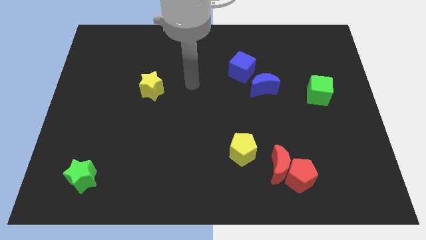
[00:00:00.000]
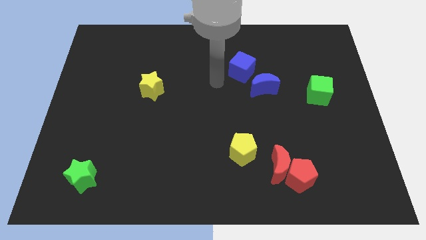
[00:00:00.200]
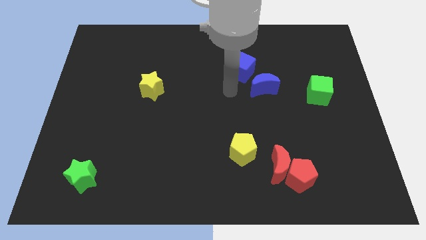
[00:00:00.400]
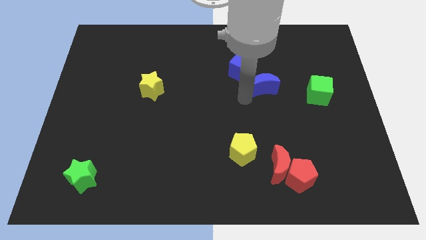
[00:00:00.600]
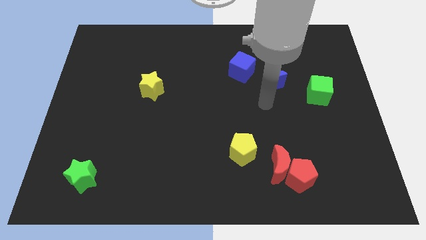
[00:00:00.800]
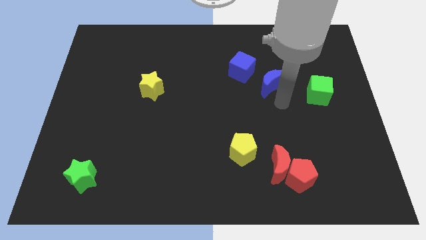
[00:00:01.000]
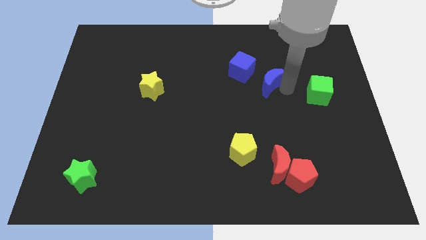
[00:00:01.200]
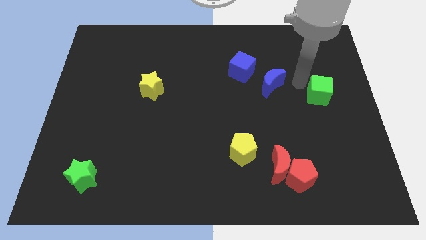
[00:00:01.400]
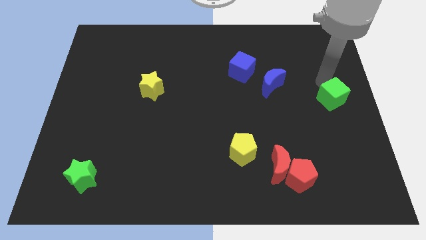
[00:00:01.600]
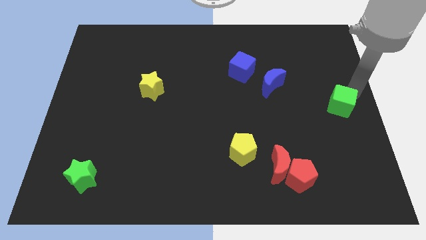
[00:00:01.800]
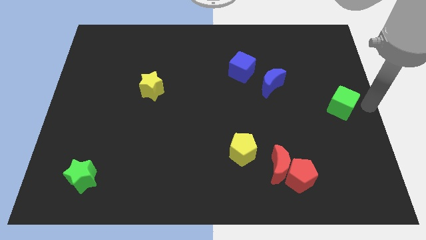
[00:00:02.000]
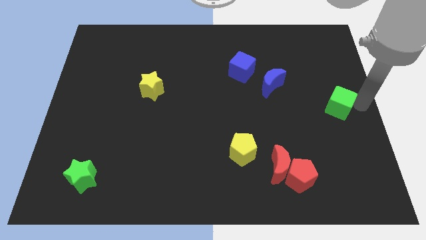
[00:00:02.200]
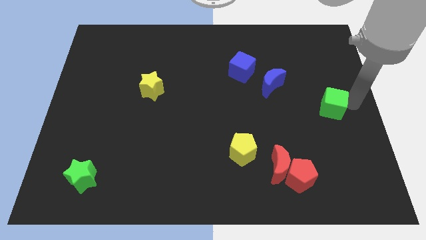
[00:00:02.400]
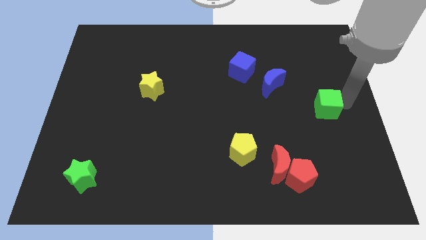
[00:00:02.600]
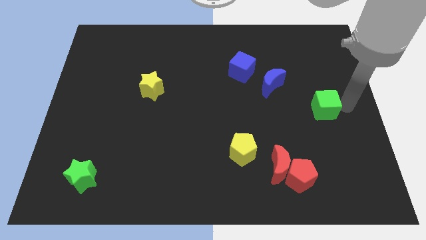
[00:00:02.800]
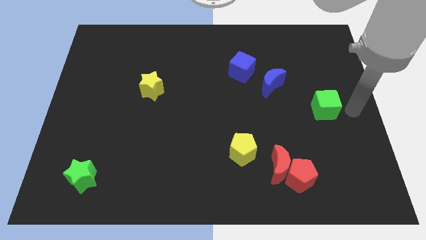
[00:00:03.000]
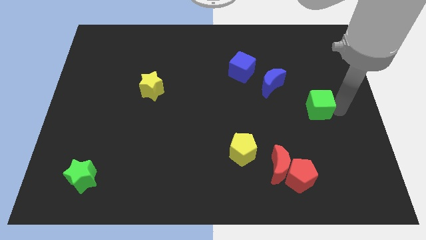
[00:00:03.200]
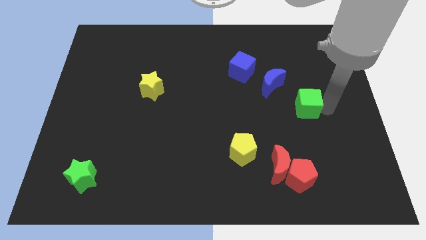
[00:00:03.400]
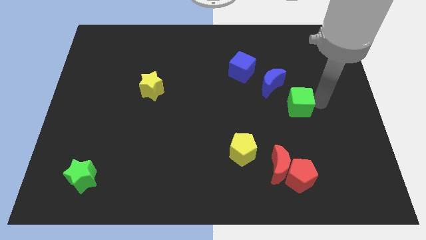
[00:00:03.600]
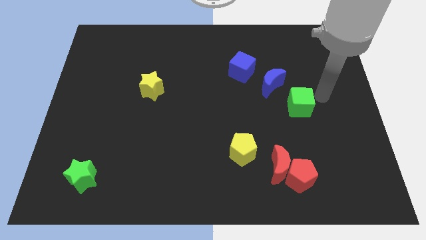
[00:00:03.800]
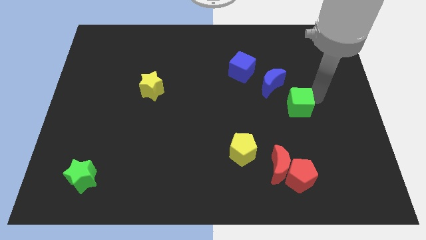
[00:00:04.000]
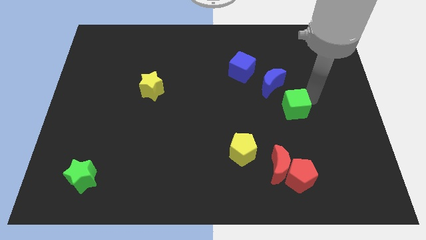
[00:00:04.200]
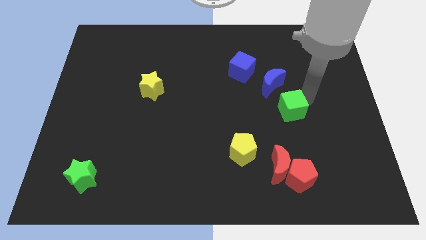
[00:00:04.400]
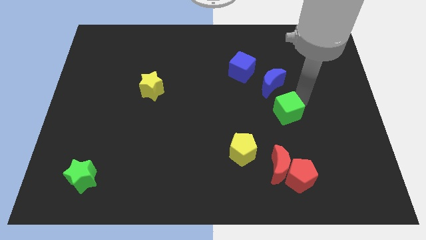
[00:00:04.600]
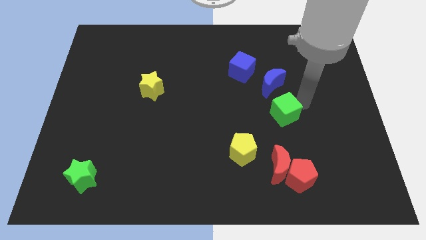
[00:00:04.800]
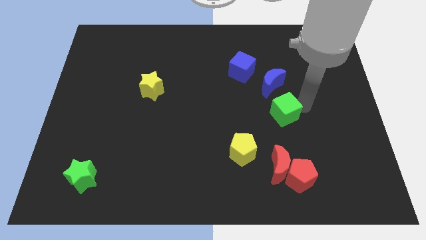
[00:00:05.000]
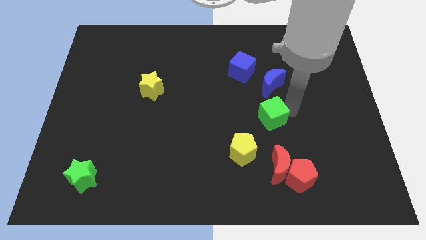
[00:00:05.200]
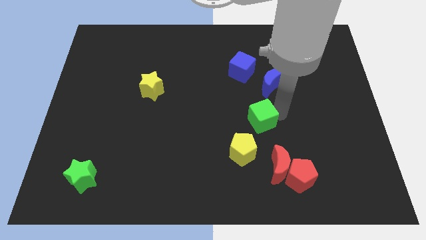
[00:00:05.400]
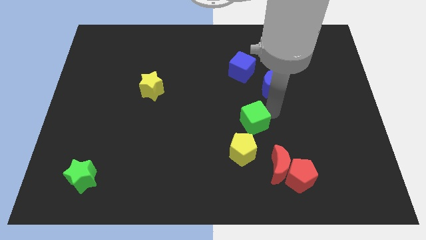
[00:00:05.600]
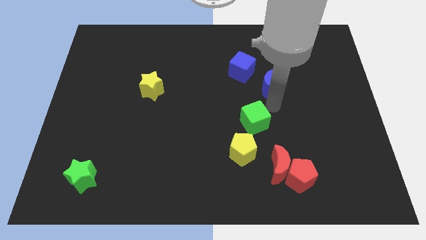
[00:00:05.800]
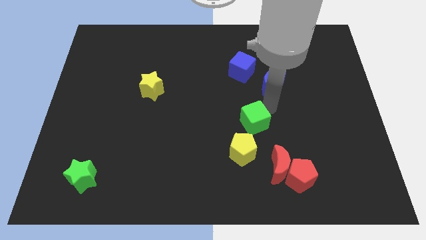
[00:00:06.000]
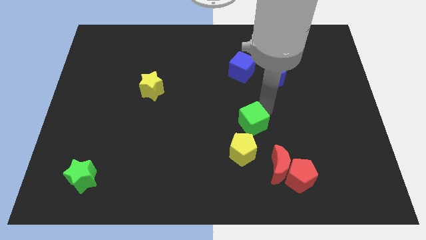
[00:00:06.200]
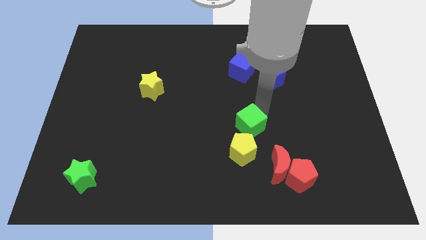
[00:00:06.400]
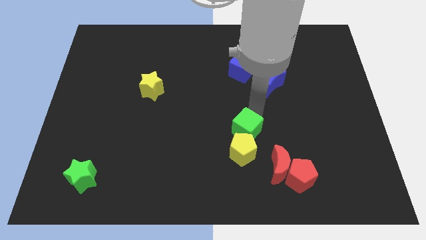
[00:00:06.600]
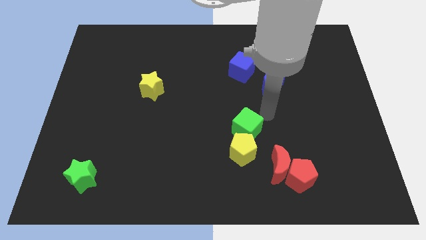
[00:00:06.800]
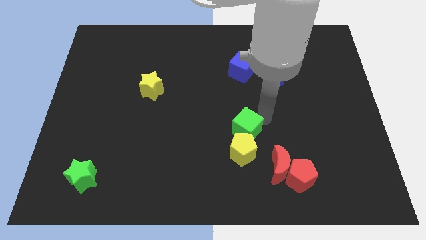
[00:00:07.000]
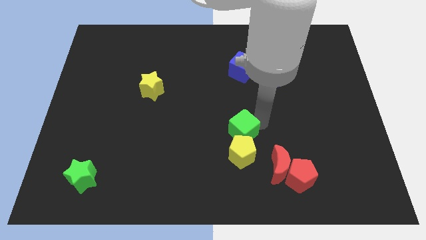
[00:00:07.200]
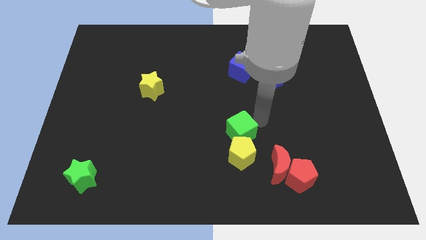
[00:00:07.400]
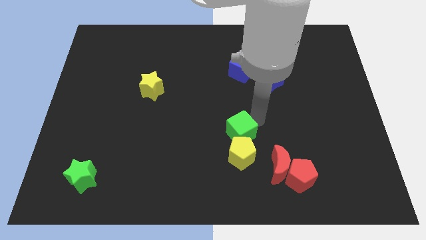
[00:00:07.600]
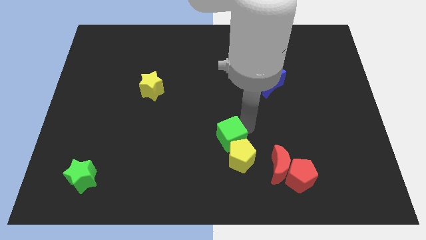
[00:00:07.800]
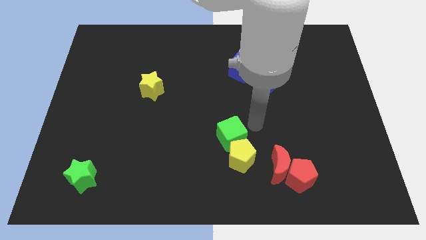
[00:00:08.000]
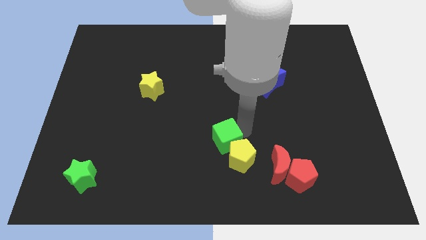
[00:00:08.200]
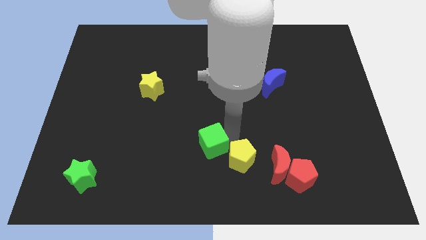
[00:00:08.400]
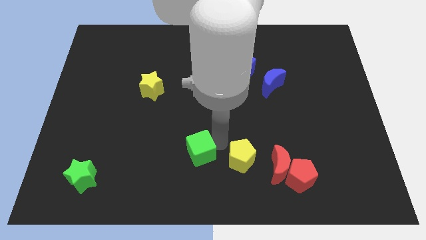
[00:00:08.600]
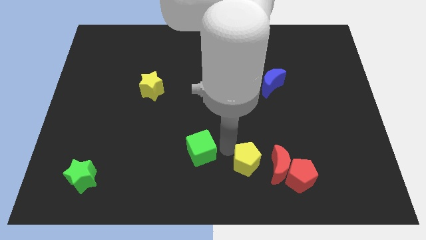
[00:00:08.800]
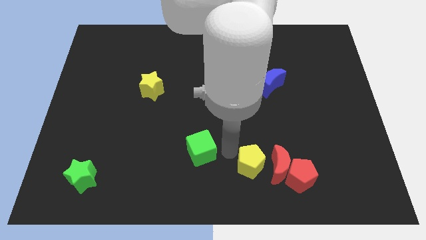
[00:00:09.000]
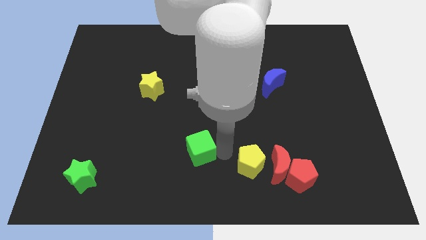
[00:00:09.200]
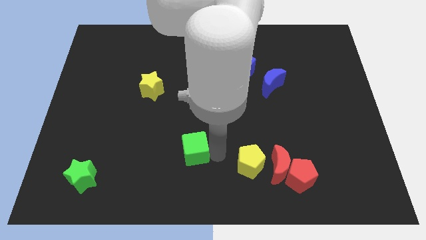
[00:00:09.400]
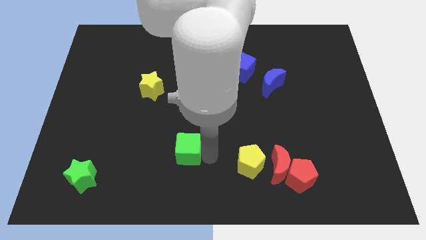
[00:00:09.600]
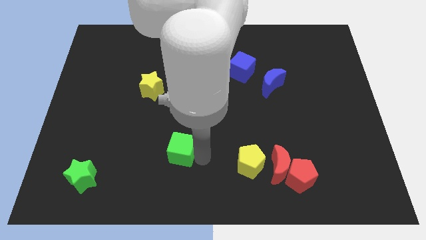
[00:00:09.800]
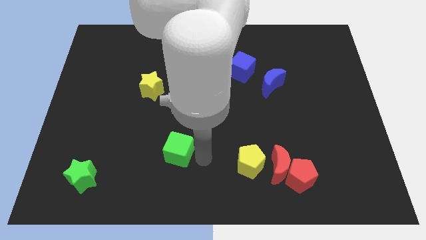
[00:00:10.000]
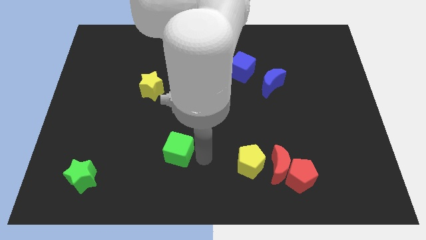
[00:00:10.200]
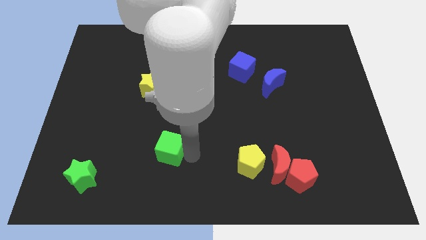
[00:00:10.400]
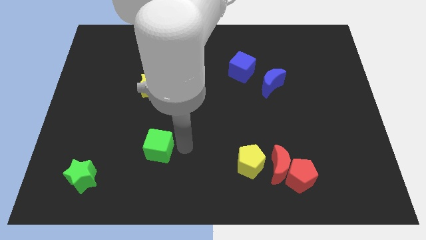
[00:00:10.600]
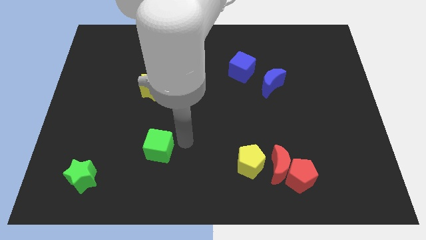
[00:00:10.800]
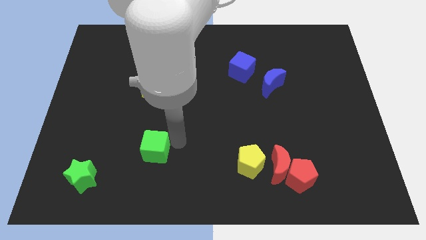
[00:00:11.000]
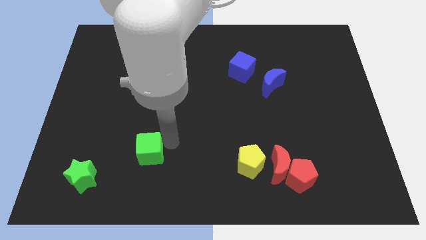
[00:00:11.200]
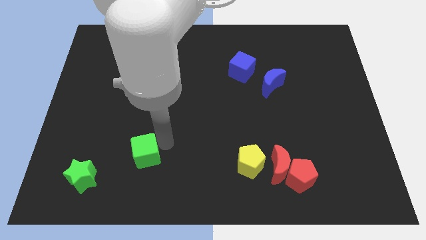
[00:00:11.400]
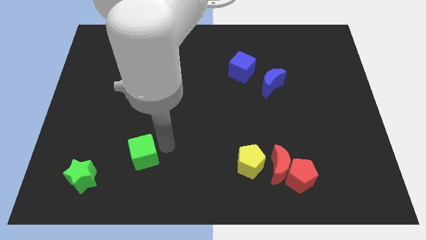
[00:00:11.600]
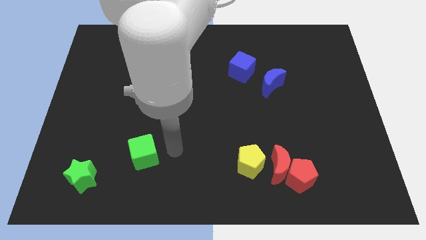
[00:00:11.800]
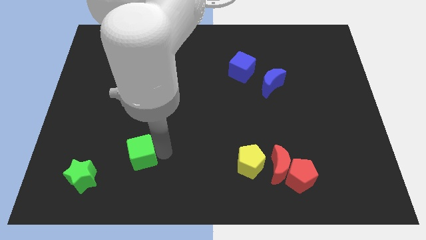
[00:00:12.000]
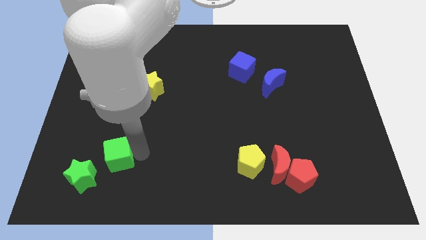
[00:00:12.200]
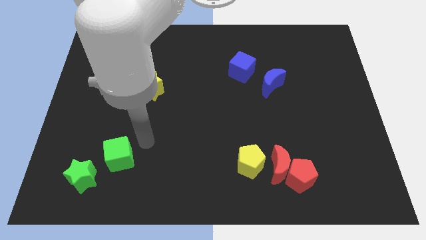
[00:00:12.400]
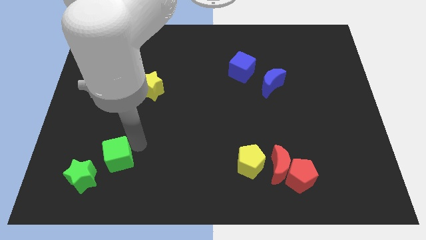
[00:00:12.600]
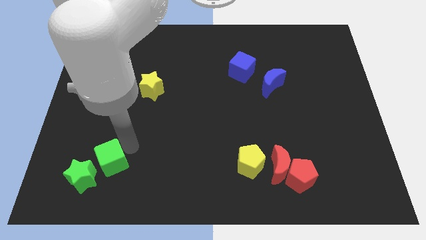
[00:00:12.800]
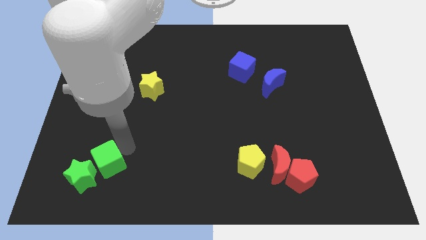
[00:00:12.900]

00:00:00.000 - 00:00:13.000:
push the green cube close to the green star
